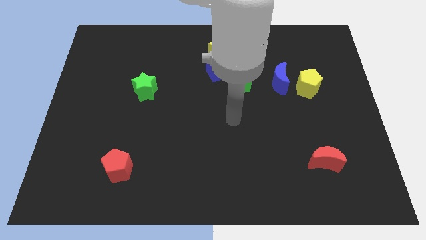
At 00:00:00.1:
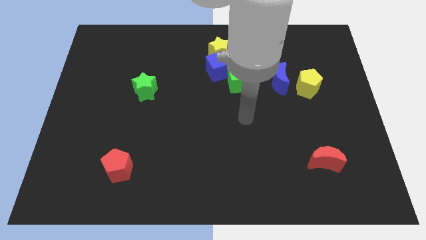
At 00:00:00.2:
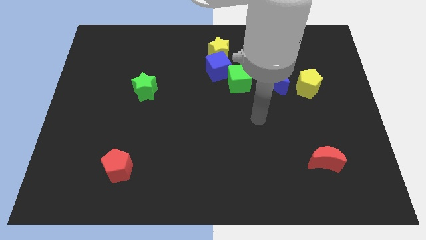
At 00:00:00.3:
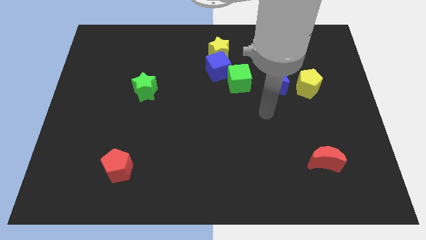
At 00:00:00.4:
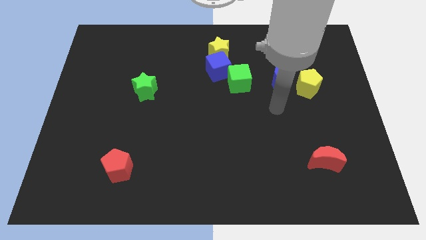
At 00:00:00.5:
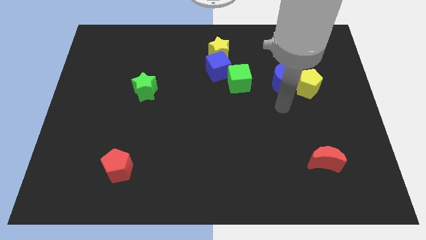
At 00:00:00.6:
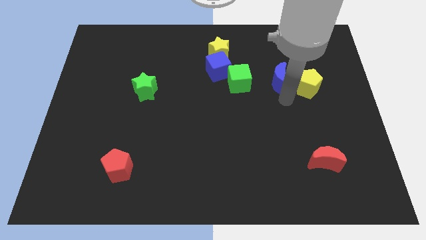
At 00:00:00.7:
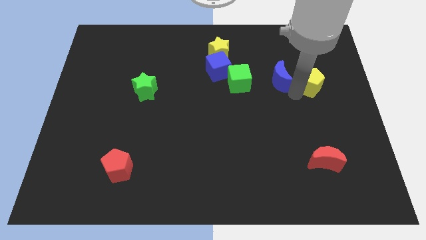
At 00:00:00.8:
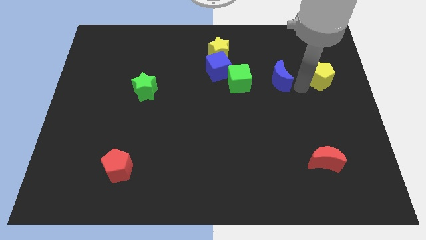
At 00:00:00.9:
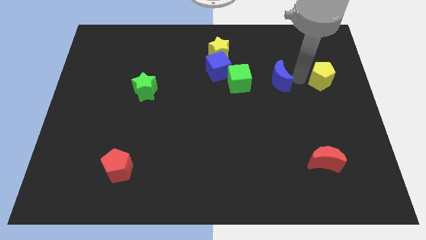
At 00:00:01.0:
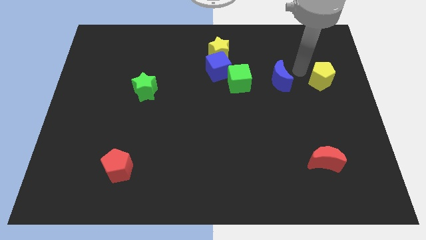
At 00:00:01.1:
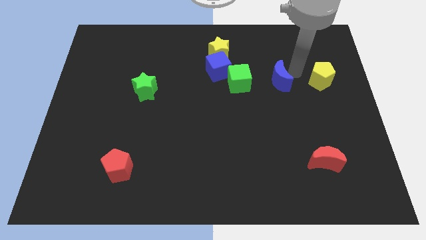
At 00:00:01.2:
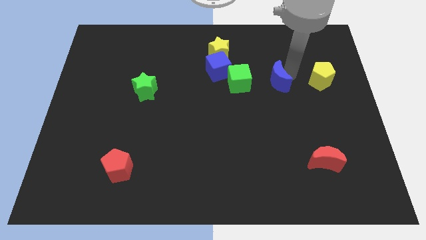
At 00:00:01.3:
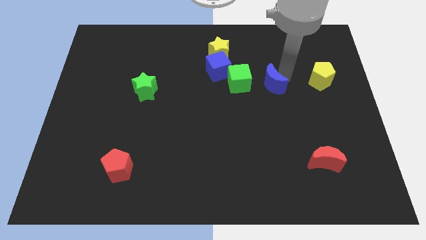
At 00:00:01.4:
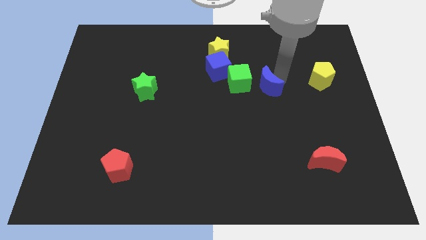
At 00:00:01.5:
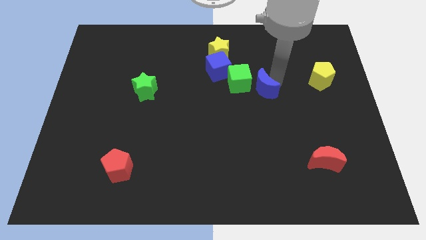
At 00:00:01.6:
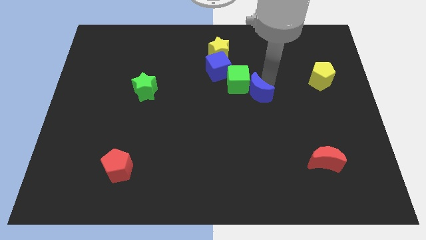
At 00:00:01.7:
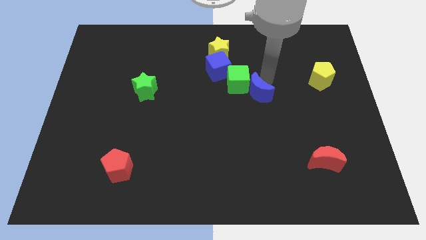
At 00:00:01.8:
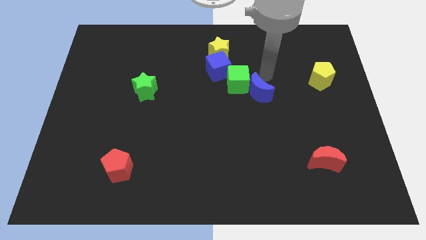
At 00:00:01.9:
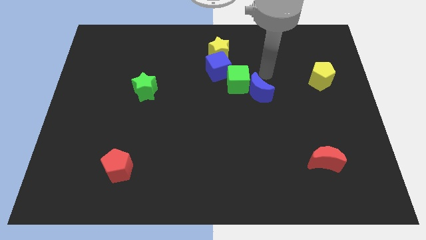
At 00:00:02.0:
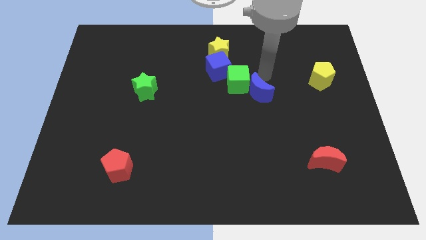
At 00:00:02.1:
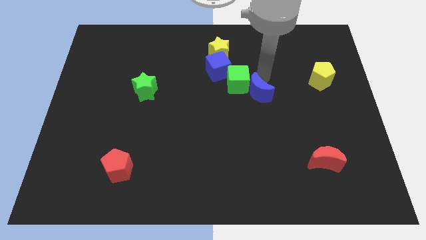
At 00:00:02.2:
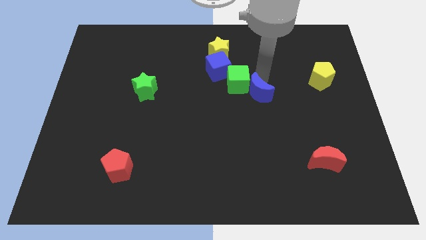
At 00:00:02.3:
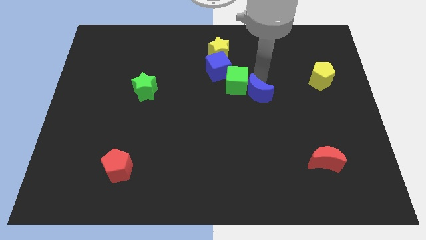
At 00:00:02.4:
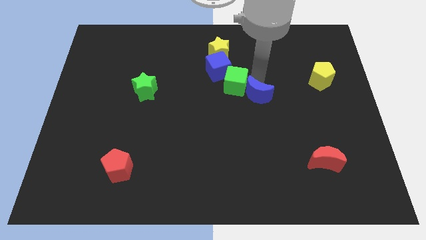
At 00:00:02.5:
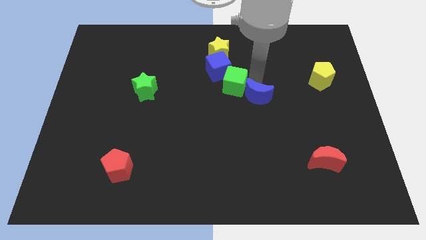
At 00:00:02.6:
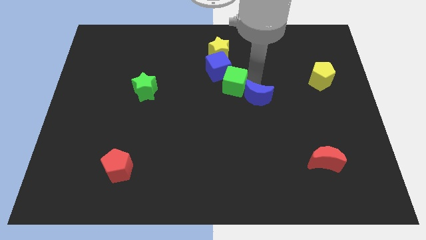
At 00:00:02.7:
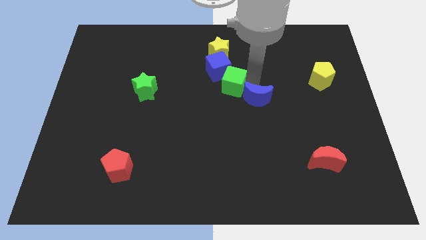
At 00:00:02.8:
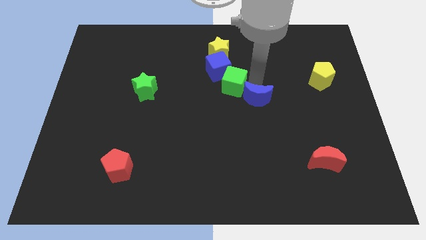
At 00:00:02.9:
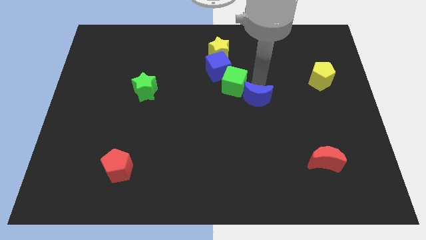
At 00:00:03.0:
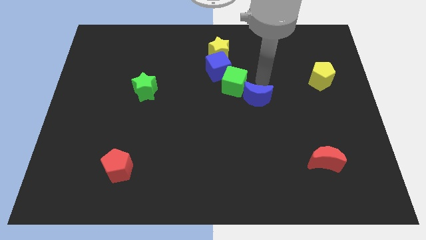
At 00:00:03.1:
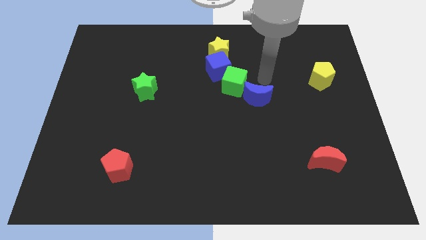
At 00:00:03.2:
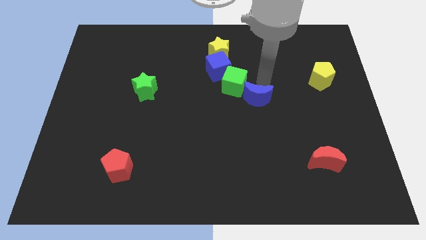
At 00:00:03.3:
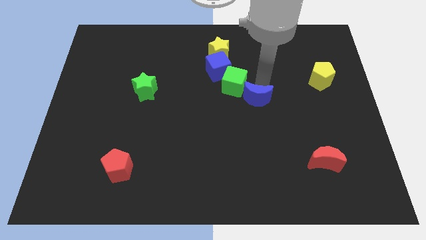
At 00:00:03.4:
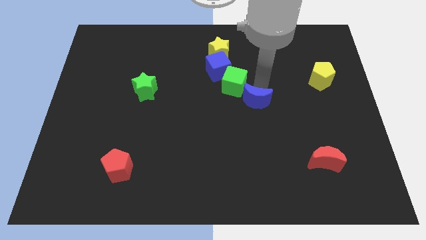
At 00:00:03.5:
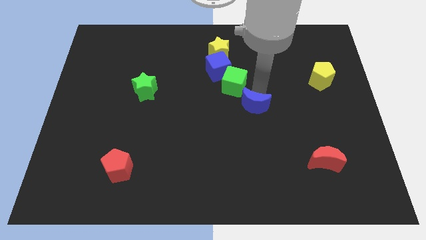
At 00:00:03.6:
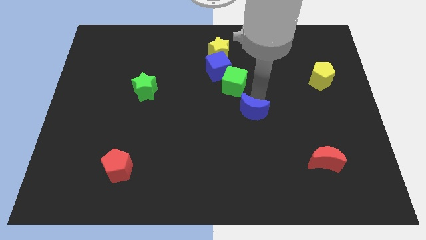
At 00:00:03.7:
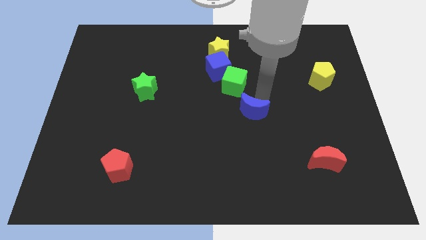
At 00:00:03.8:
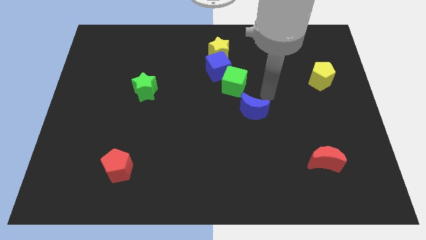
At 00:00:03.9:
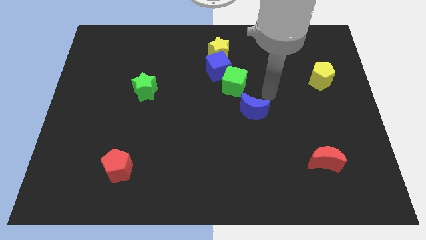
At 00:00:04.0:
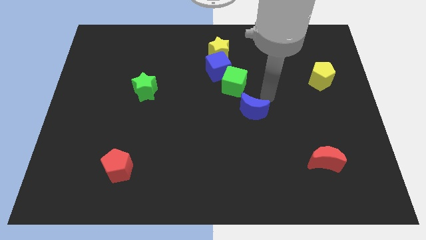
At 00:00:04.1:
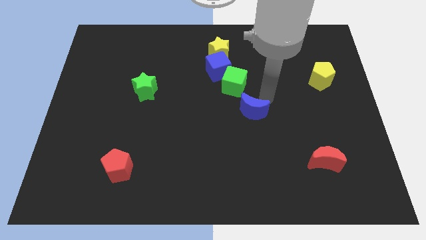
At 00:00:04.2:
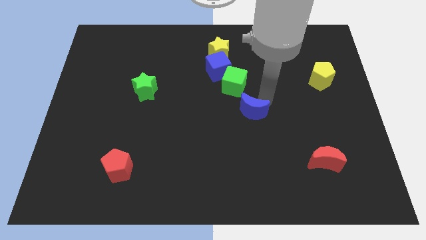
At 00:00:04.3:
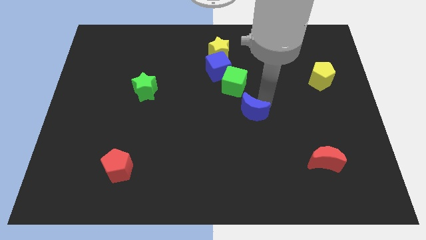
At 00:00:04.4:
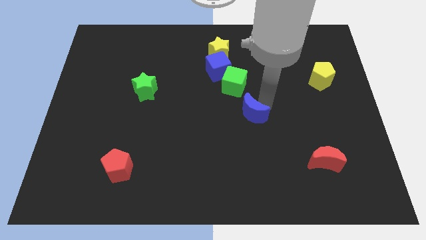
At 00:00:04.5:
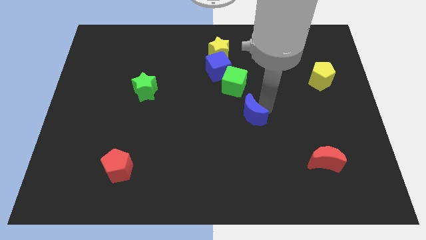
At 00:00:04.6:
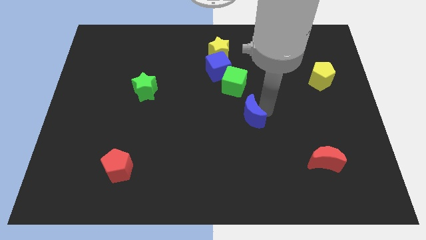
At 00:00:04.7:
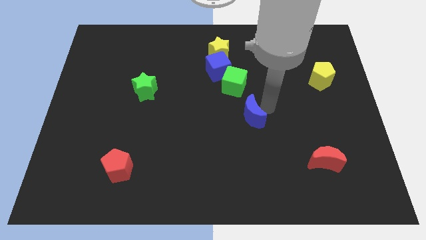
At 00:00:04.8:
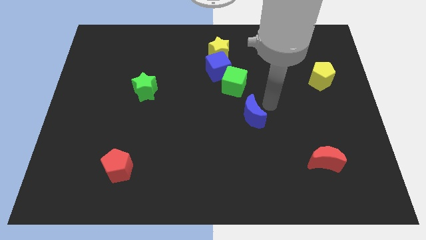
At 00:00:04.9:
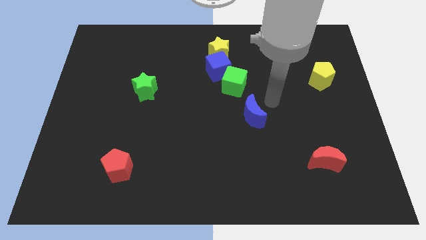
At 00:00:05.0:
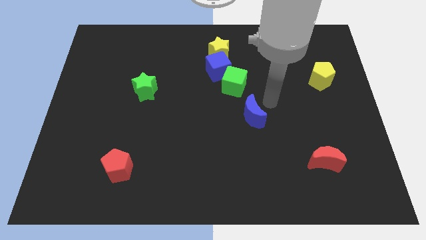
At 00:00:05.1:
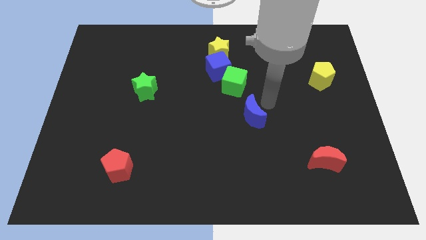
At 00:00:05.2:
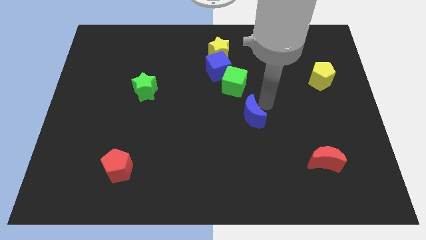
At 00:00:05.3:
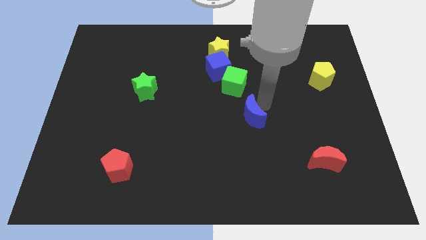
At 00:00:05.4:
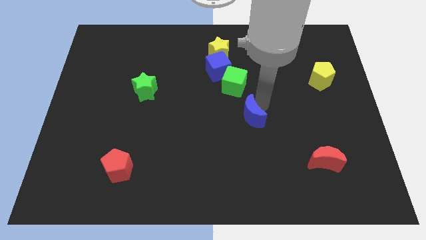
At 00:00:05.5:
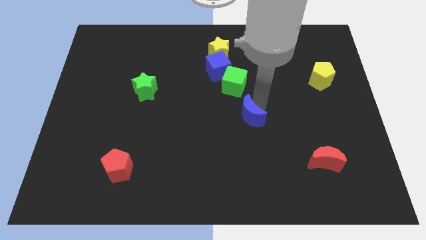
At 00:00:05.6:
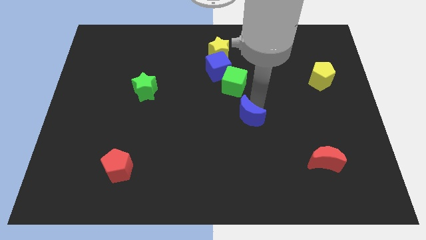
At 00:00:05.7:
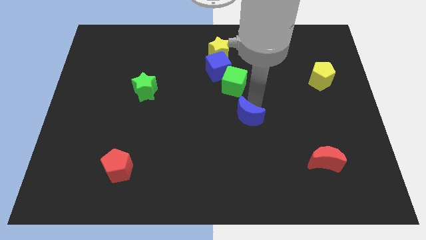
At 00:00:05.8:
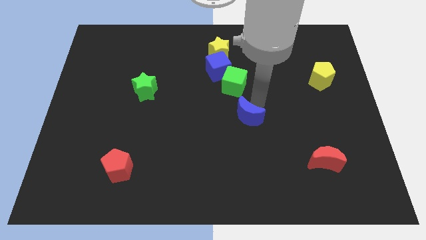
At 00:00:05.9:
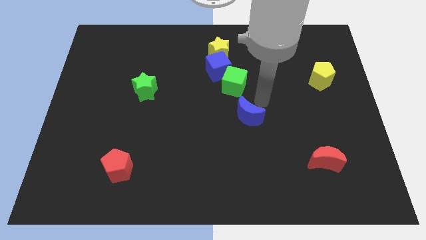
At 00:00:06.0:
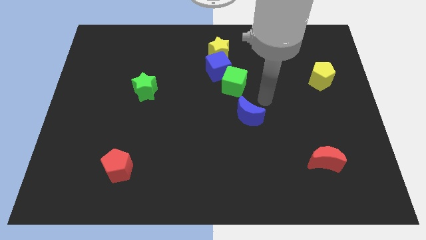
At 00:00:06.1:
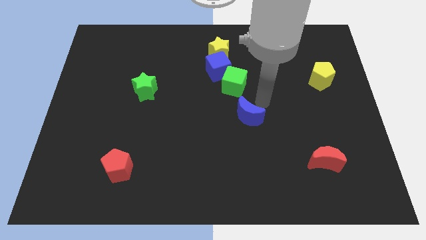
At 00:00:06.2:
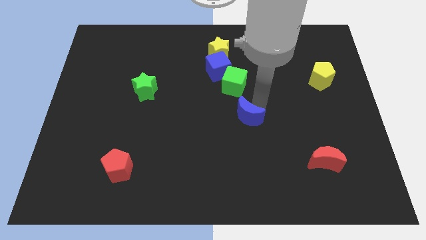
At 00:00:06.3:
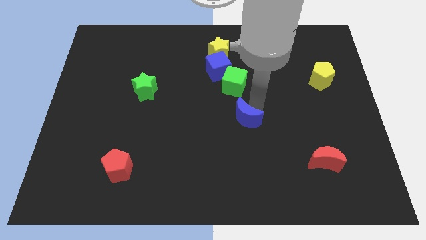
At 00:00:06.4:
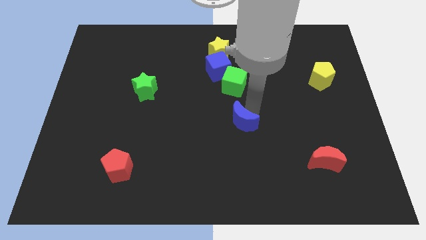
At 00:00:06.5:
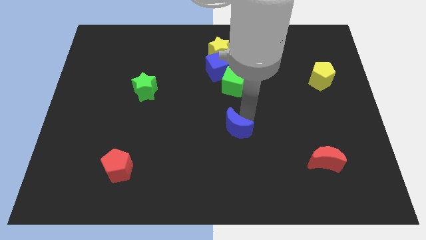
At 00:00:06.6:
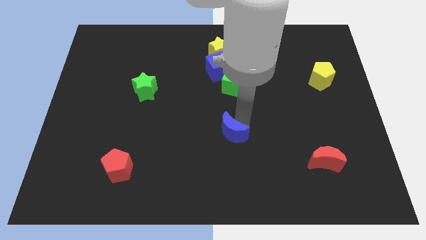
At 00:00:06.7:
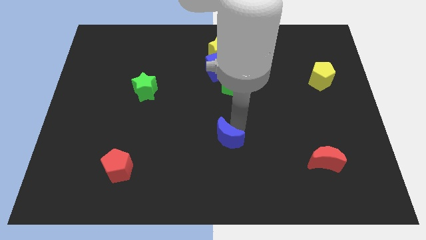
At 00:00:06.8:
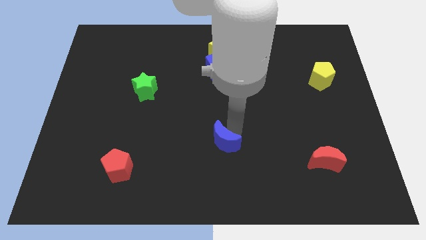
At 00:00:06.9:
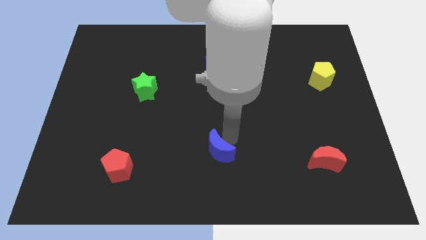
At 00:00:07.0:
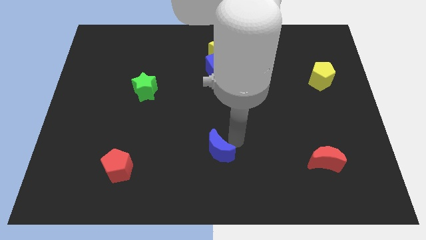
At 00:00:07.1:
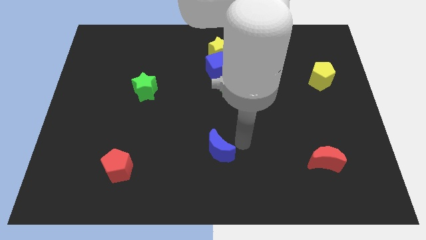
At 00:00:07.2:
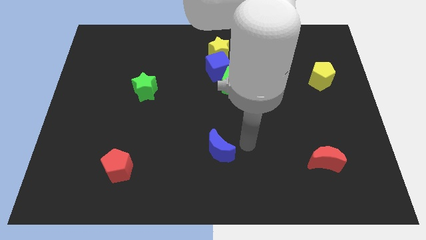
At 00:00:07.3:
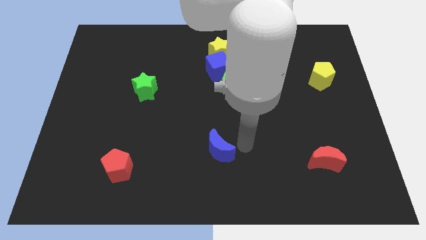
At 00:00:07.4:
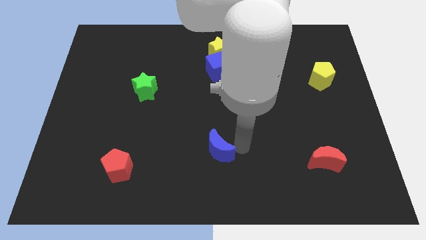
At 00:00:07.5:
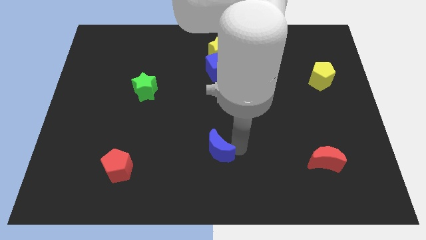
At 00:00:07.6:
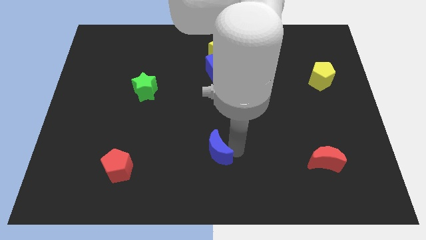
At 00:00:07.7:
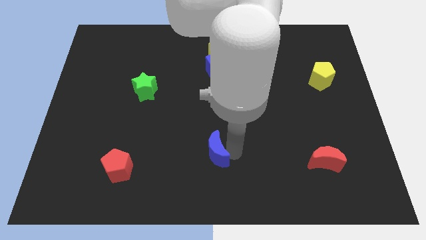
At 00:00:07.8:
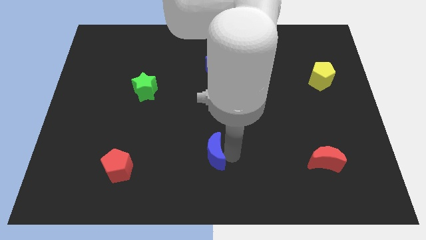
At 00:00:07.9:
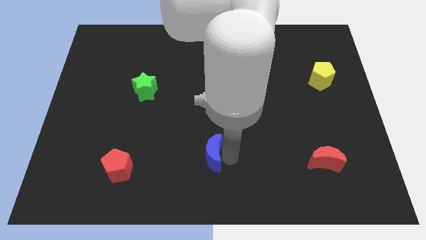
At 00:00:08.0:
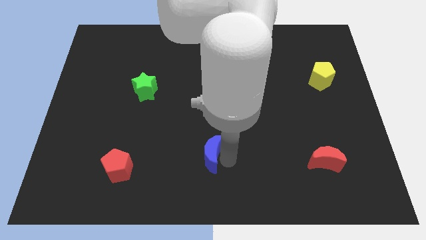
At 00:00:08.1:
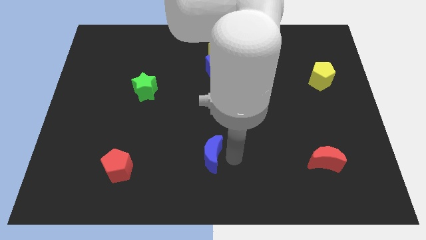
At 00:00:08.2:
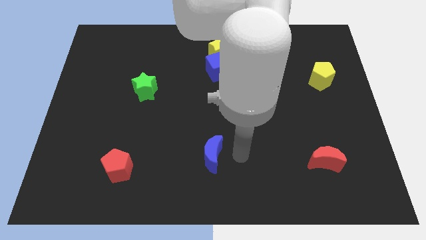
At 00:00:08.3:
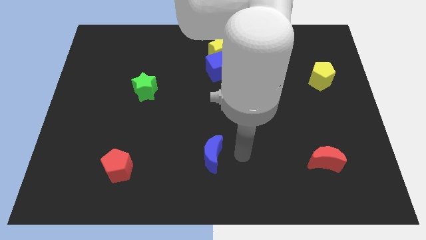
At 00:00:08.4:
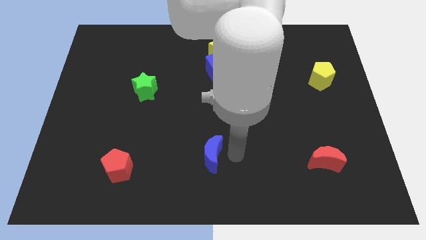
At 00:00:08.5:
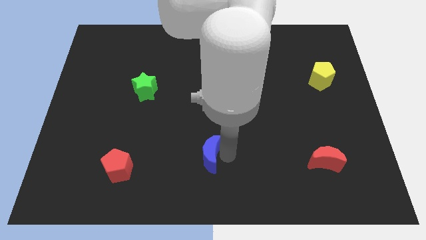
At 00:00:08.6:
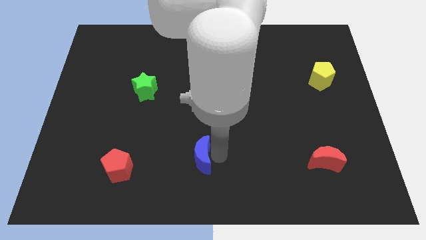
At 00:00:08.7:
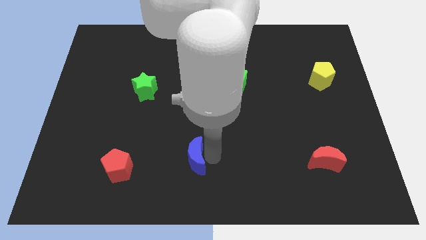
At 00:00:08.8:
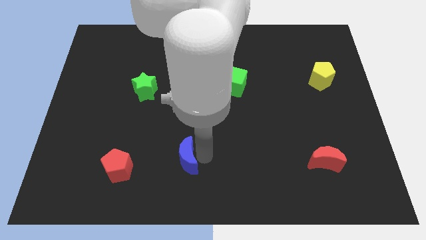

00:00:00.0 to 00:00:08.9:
slide the blue moon right of the red pentagon
